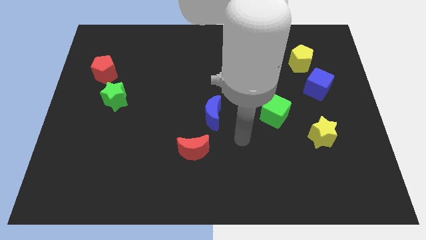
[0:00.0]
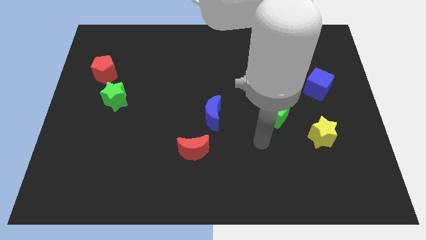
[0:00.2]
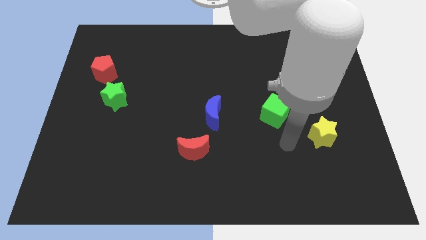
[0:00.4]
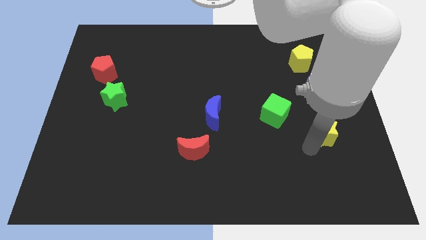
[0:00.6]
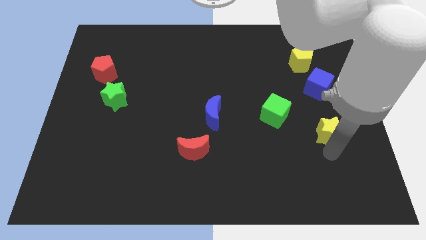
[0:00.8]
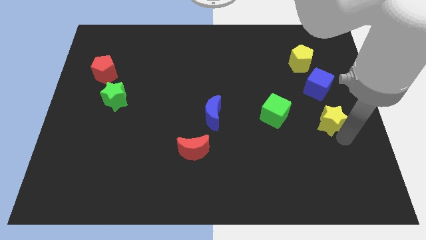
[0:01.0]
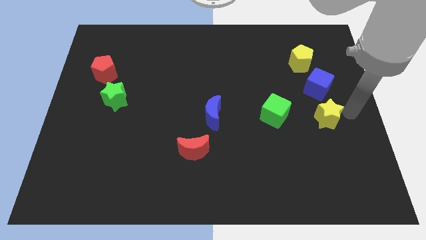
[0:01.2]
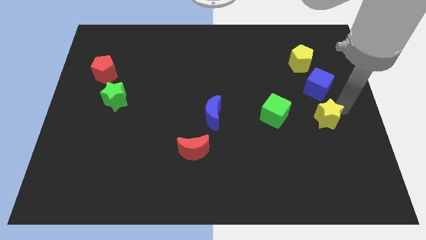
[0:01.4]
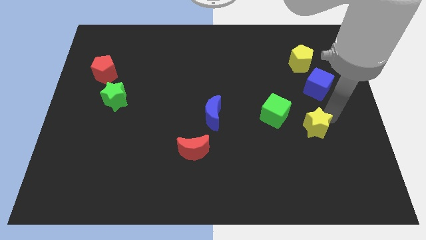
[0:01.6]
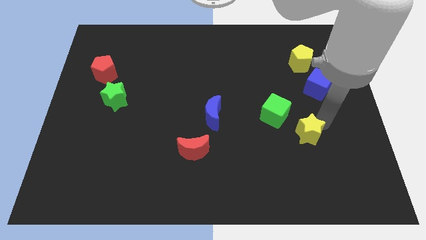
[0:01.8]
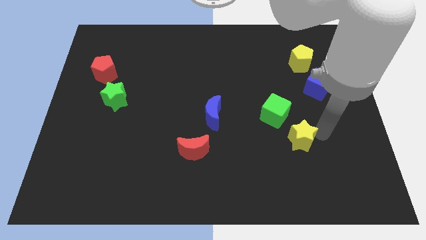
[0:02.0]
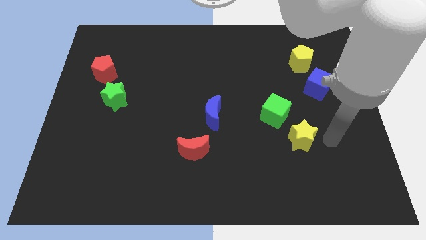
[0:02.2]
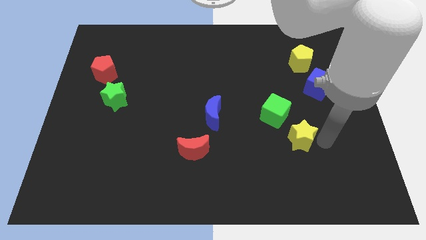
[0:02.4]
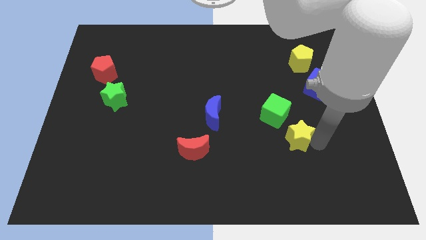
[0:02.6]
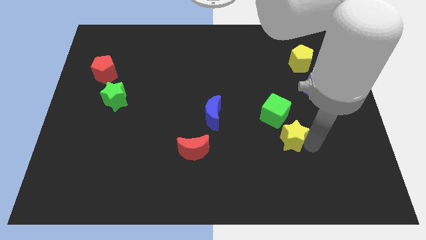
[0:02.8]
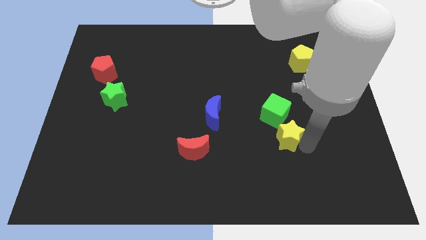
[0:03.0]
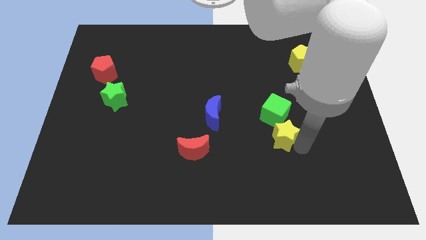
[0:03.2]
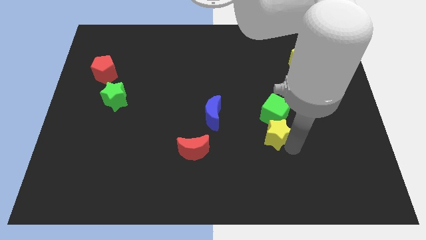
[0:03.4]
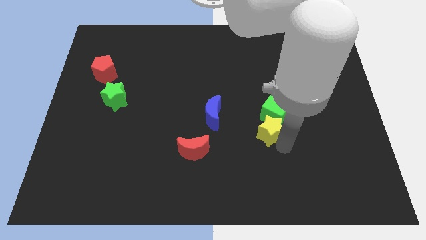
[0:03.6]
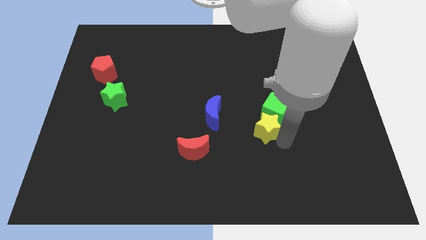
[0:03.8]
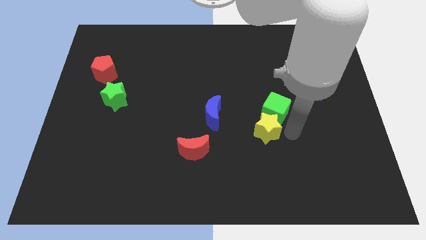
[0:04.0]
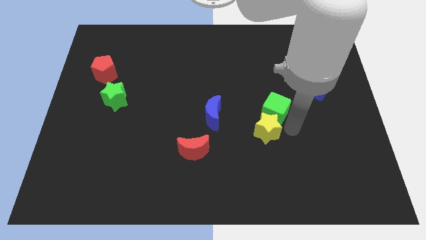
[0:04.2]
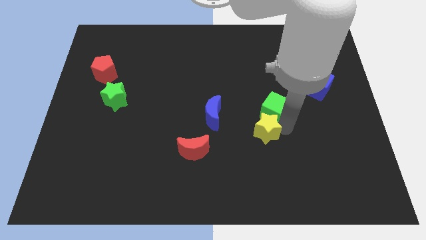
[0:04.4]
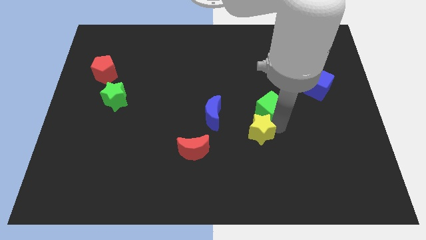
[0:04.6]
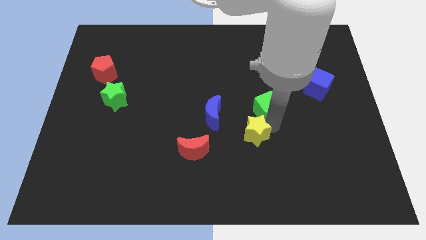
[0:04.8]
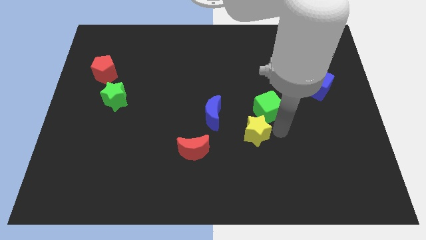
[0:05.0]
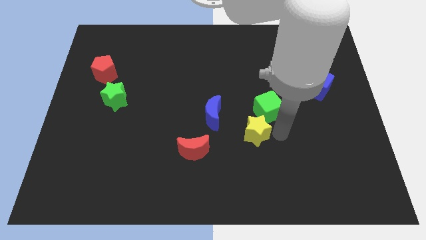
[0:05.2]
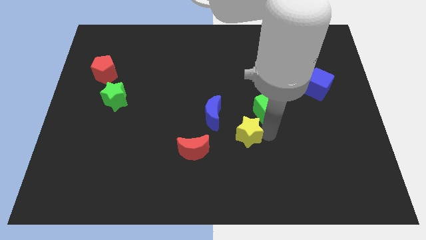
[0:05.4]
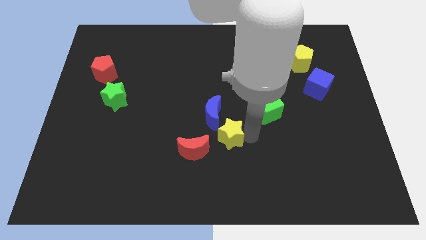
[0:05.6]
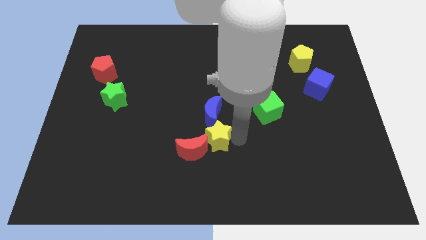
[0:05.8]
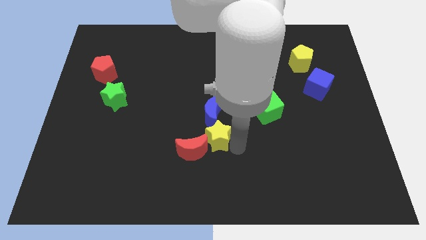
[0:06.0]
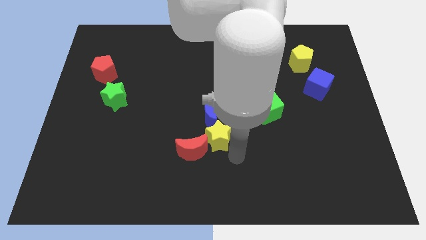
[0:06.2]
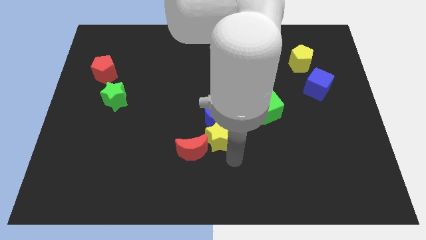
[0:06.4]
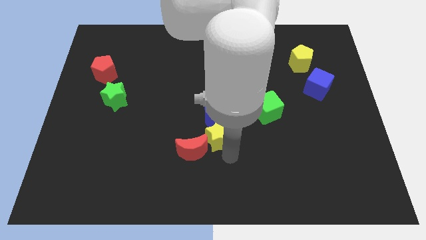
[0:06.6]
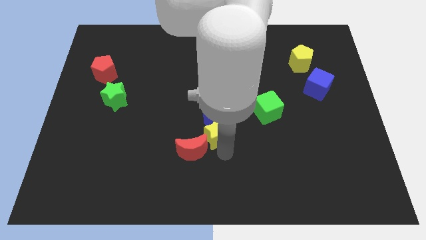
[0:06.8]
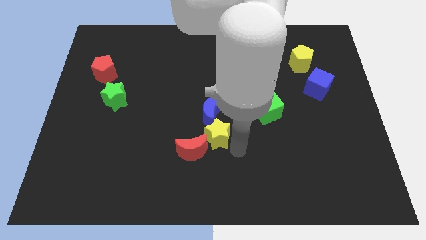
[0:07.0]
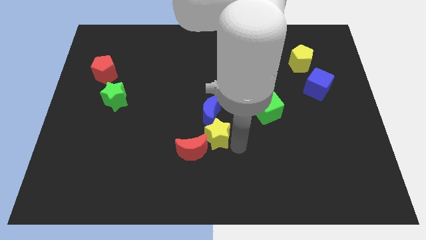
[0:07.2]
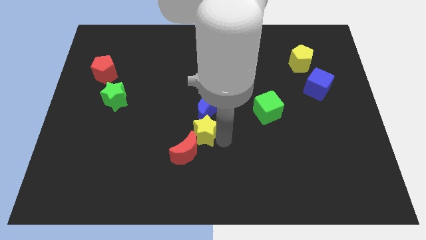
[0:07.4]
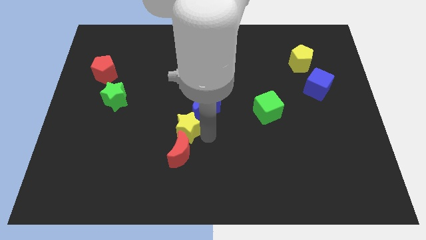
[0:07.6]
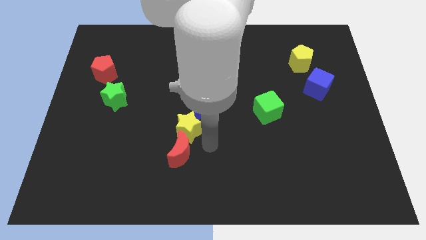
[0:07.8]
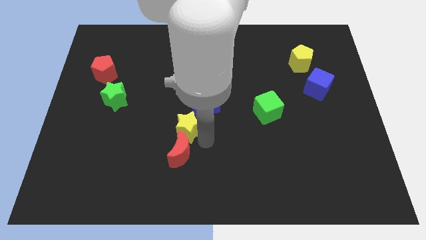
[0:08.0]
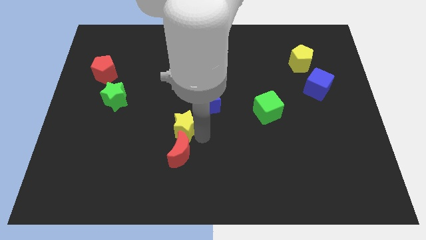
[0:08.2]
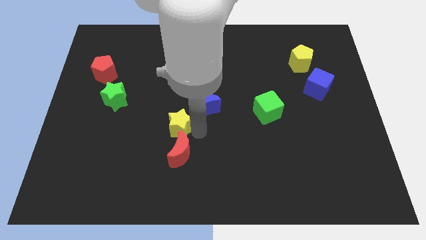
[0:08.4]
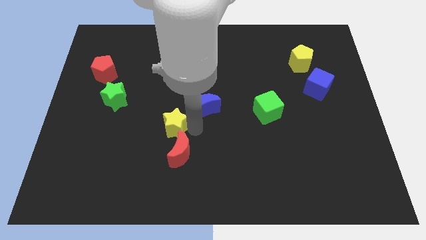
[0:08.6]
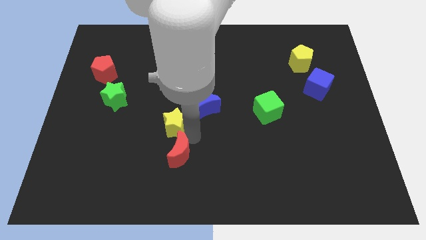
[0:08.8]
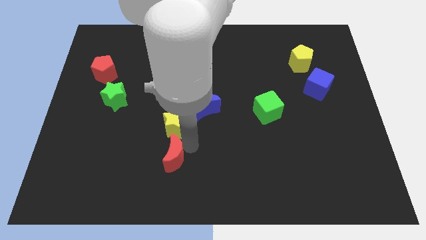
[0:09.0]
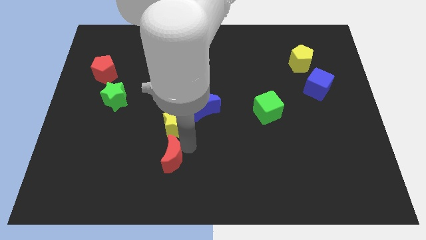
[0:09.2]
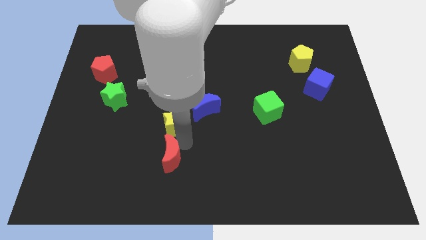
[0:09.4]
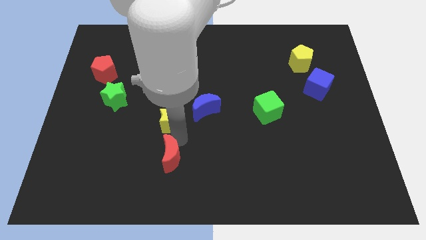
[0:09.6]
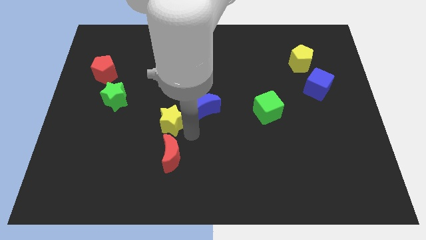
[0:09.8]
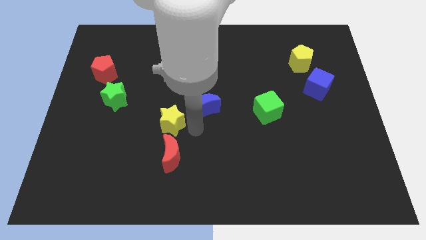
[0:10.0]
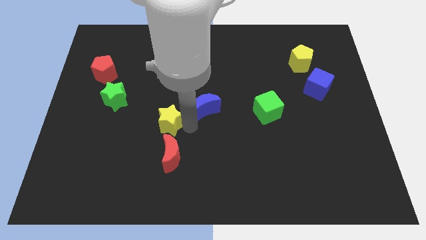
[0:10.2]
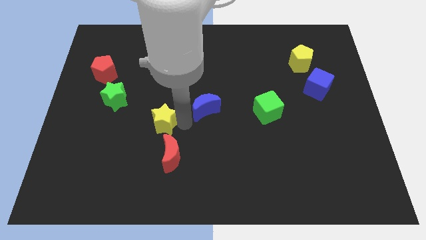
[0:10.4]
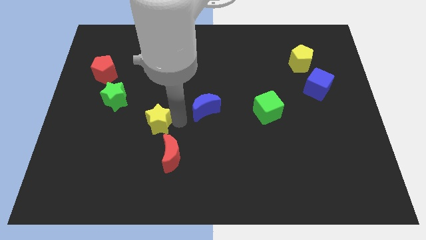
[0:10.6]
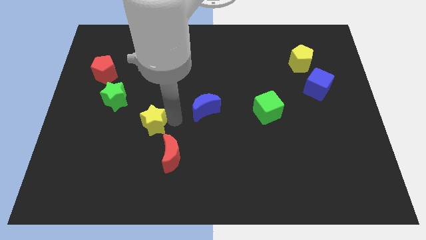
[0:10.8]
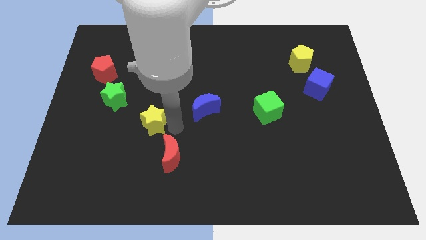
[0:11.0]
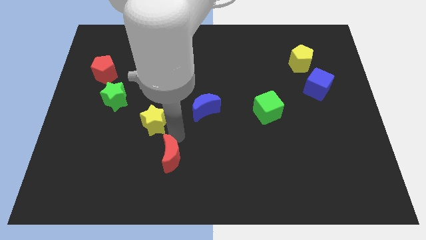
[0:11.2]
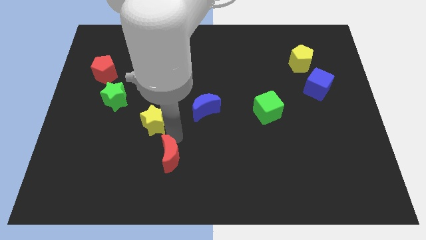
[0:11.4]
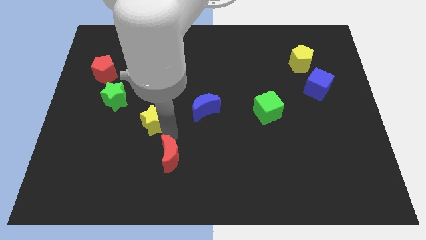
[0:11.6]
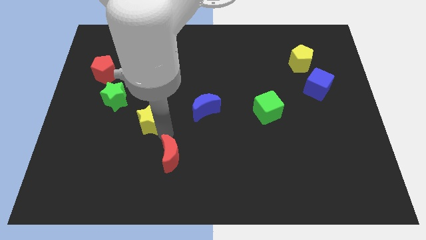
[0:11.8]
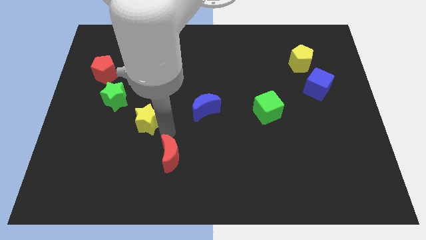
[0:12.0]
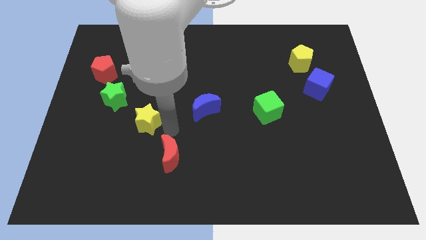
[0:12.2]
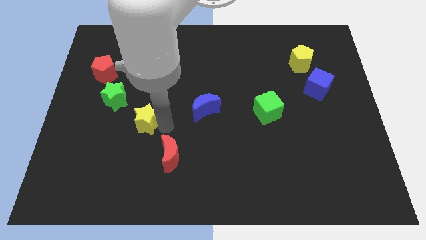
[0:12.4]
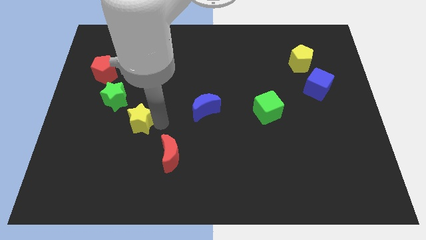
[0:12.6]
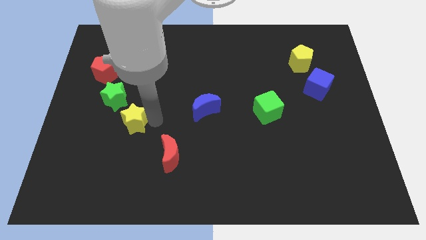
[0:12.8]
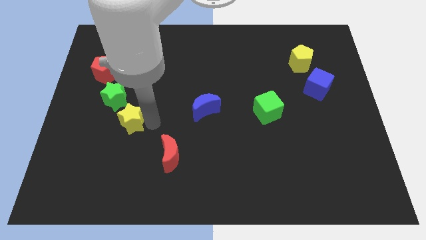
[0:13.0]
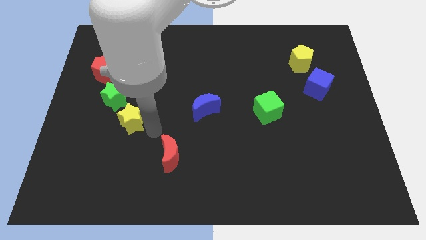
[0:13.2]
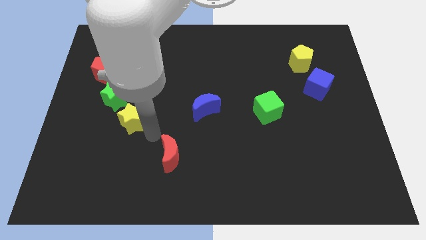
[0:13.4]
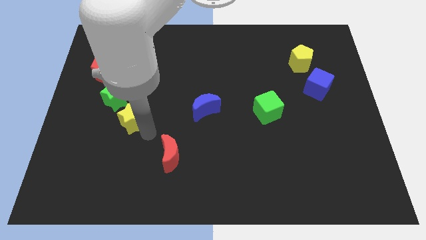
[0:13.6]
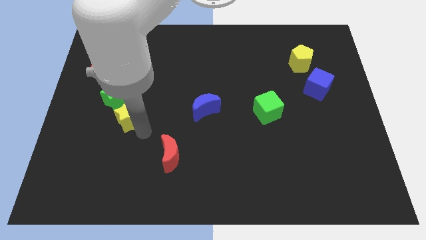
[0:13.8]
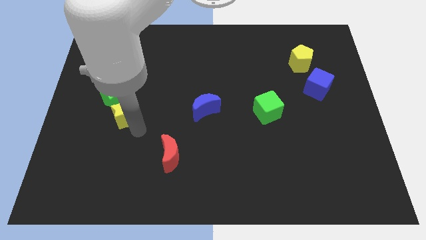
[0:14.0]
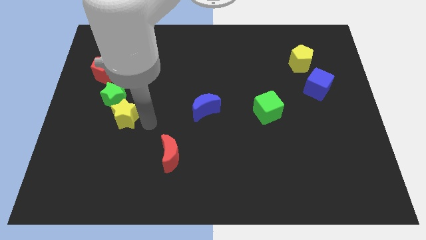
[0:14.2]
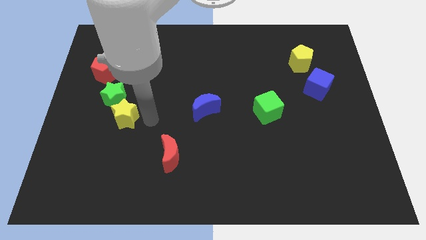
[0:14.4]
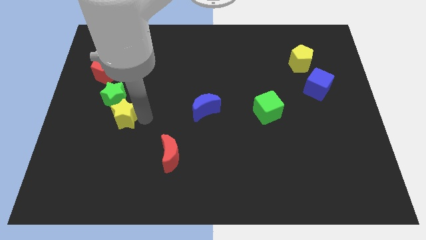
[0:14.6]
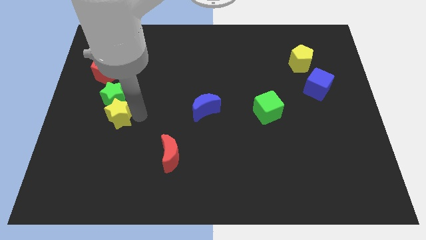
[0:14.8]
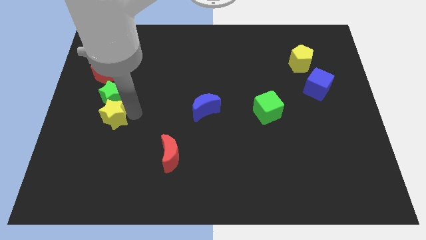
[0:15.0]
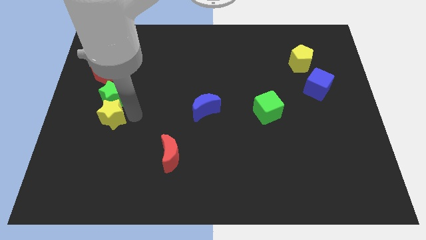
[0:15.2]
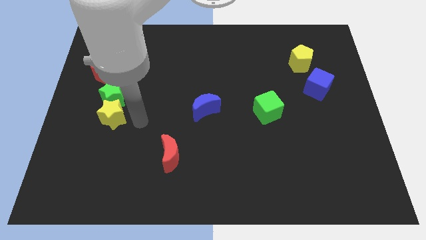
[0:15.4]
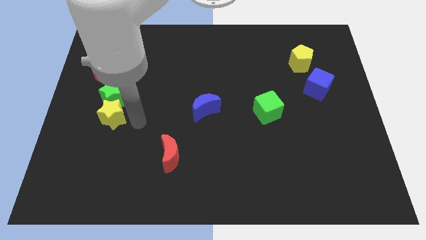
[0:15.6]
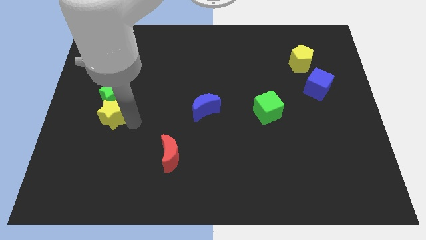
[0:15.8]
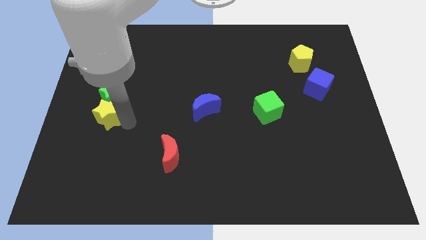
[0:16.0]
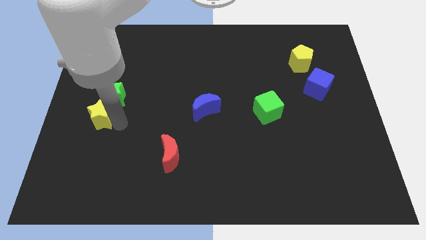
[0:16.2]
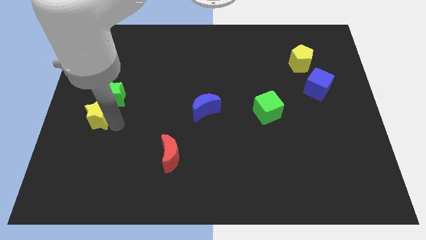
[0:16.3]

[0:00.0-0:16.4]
move the yellow star to the left side of the board
